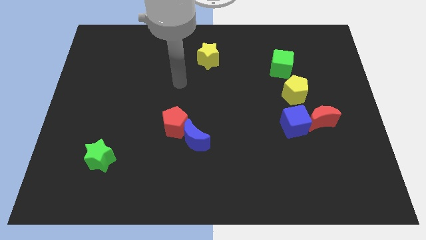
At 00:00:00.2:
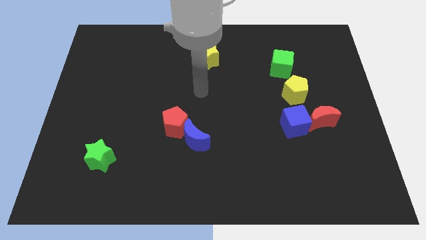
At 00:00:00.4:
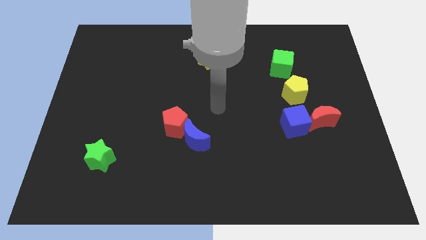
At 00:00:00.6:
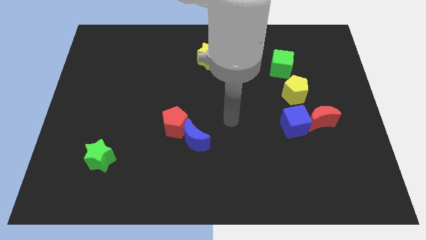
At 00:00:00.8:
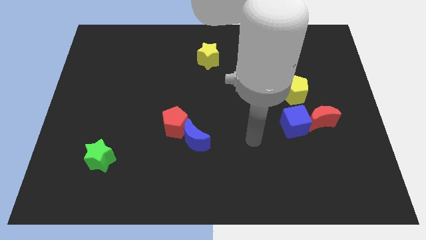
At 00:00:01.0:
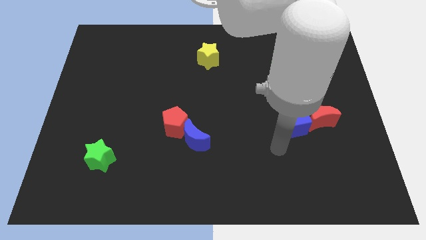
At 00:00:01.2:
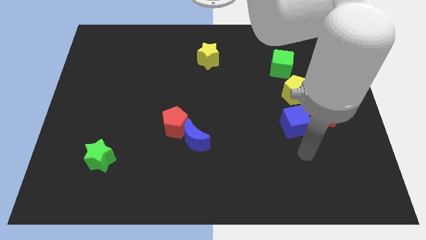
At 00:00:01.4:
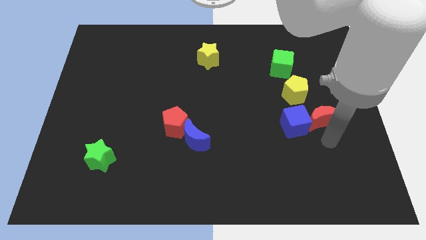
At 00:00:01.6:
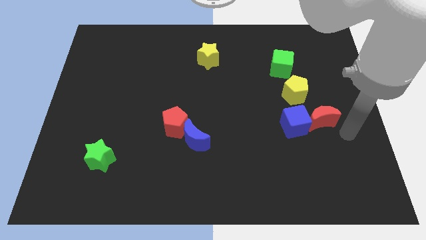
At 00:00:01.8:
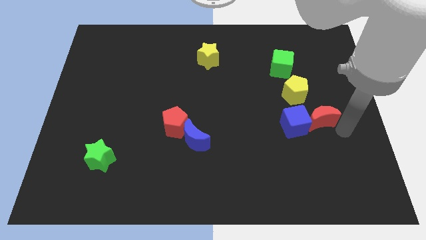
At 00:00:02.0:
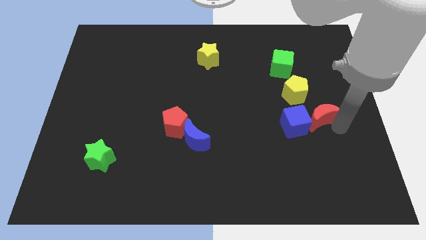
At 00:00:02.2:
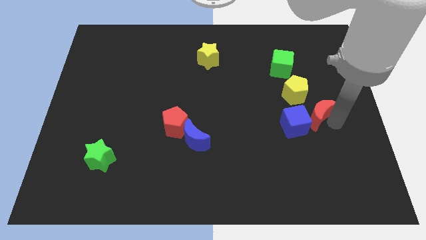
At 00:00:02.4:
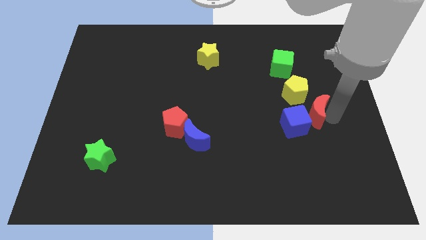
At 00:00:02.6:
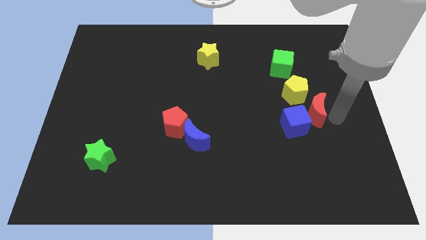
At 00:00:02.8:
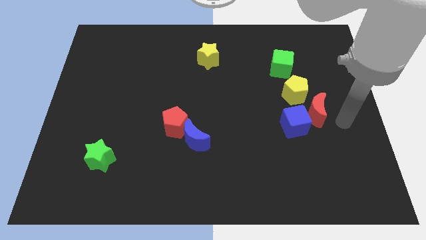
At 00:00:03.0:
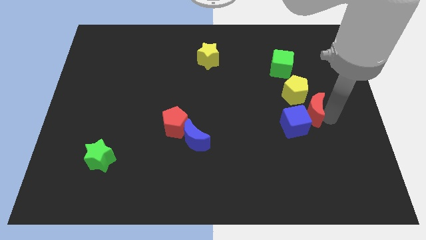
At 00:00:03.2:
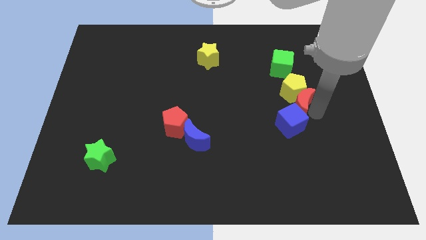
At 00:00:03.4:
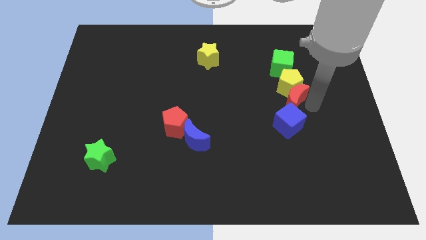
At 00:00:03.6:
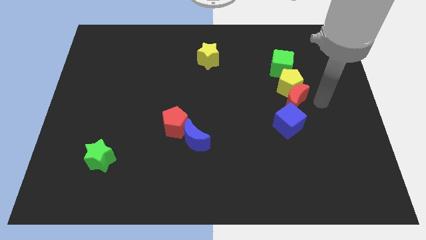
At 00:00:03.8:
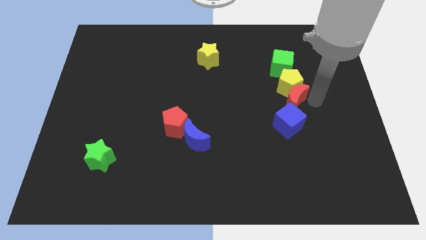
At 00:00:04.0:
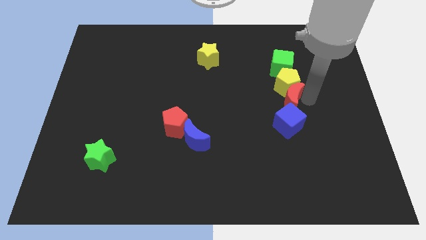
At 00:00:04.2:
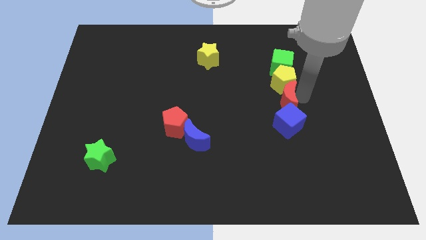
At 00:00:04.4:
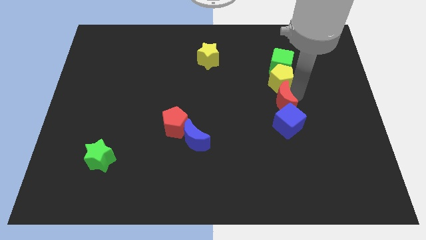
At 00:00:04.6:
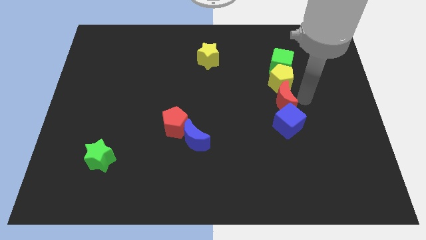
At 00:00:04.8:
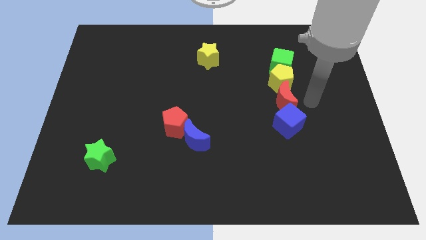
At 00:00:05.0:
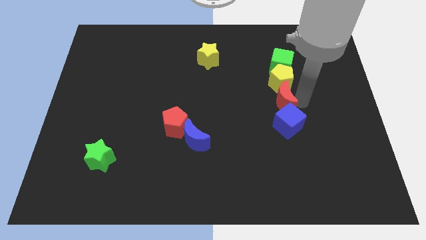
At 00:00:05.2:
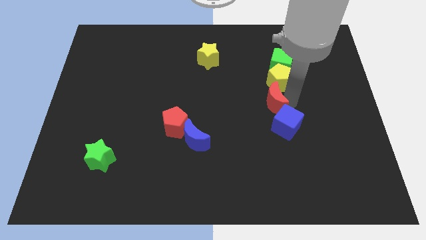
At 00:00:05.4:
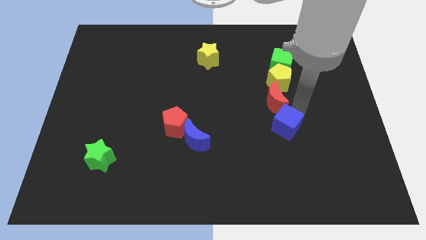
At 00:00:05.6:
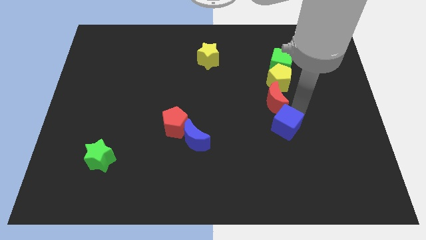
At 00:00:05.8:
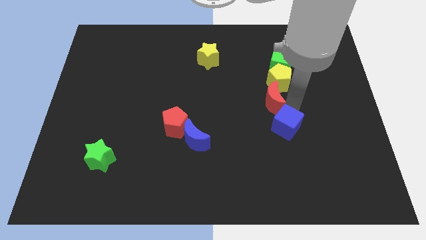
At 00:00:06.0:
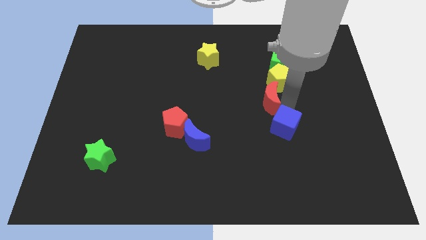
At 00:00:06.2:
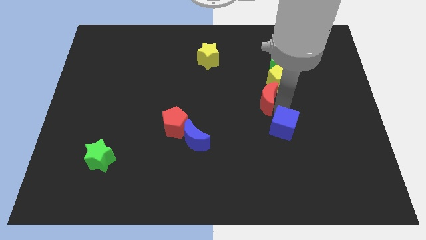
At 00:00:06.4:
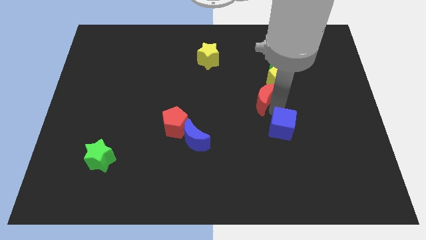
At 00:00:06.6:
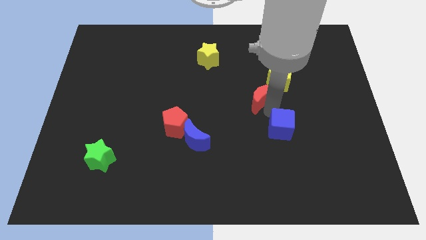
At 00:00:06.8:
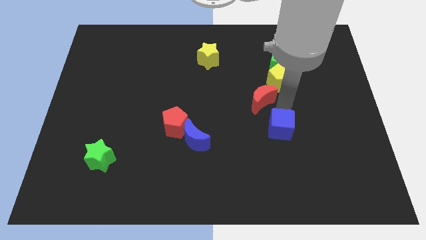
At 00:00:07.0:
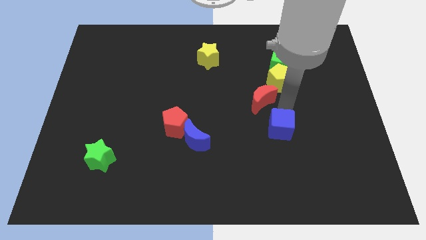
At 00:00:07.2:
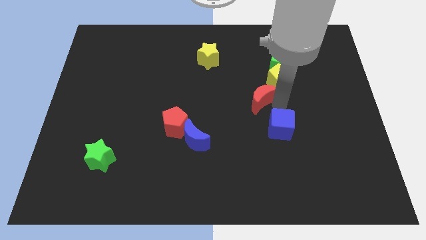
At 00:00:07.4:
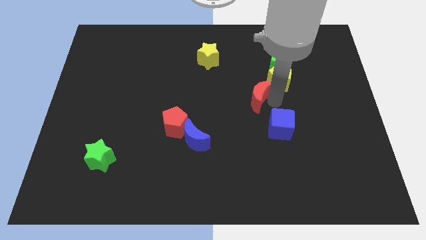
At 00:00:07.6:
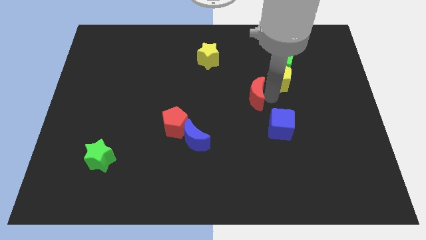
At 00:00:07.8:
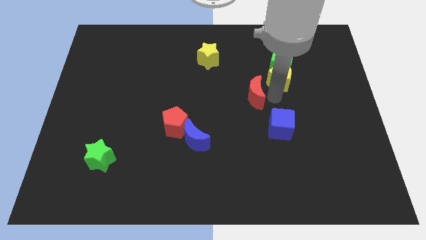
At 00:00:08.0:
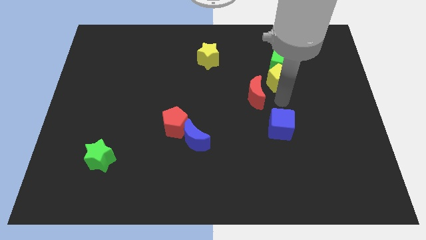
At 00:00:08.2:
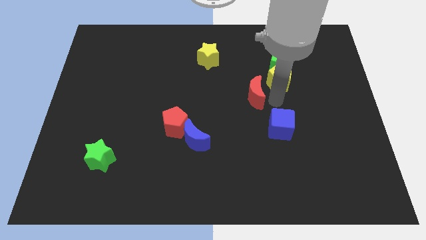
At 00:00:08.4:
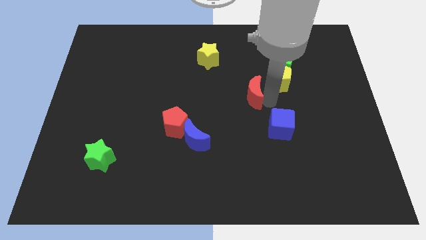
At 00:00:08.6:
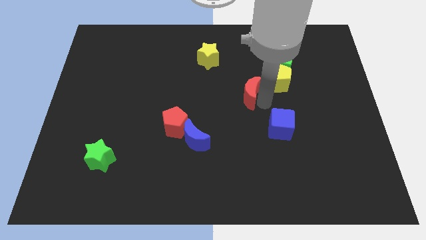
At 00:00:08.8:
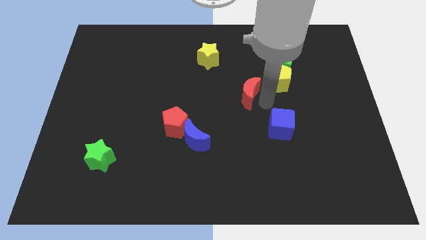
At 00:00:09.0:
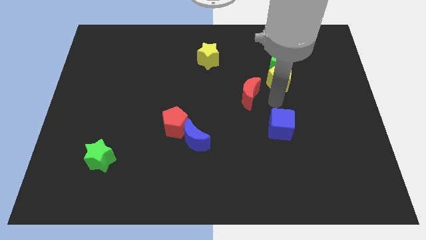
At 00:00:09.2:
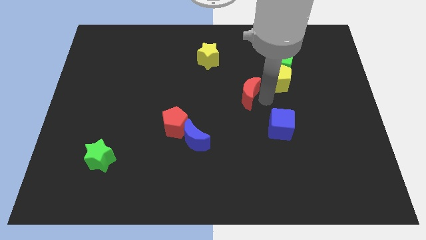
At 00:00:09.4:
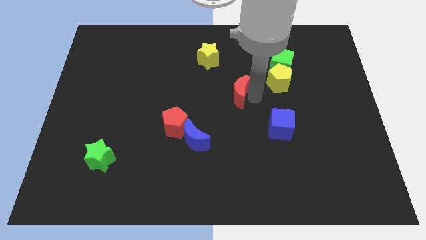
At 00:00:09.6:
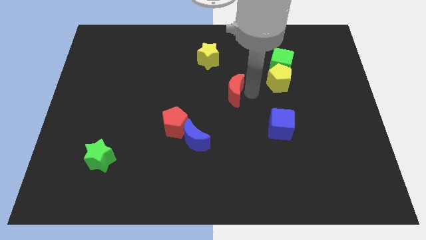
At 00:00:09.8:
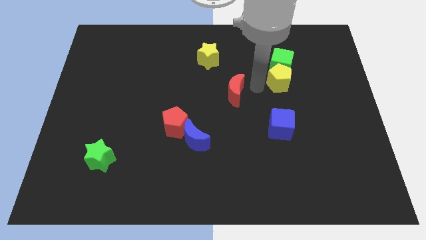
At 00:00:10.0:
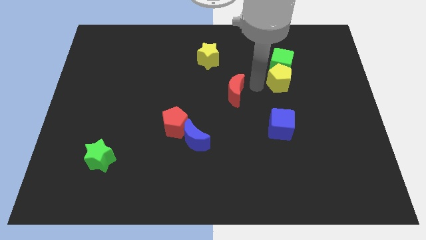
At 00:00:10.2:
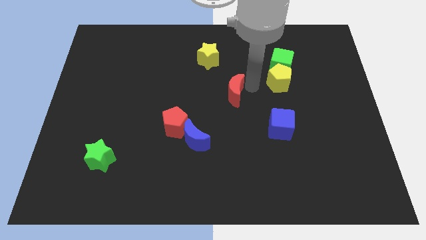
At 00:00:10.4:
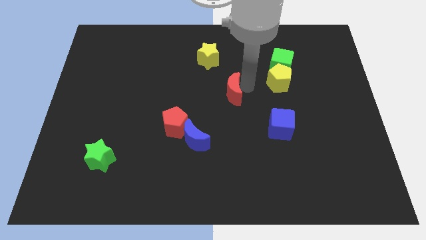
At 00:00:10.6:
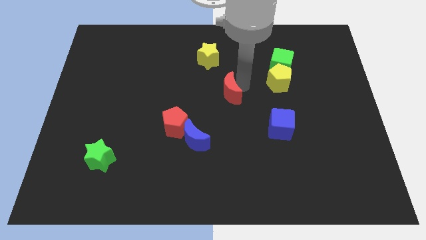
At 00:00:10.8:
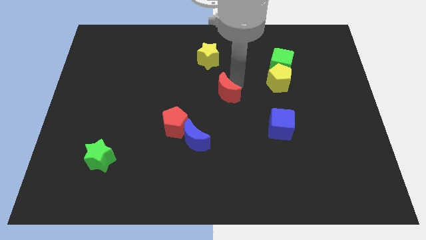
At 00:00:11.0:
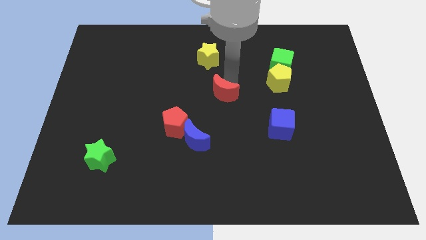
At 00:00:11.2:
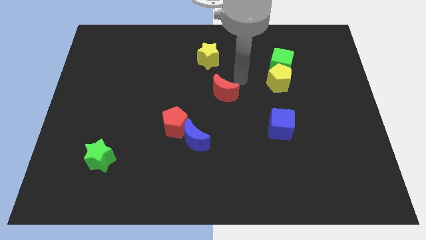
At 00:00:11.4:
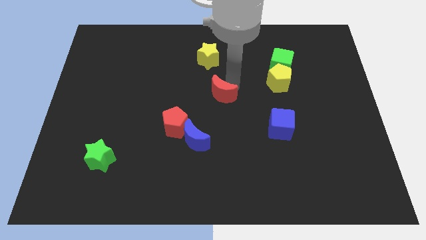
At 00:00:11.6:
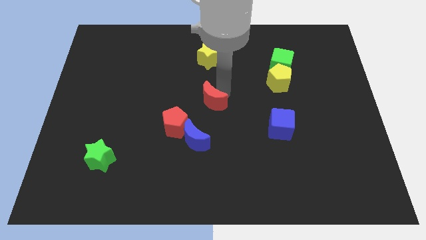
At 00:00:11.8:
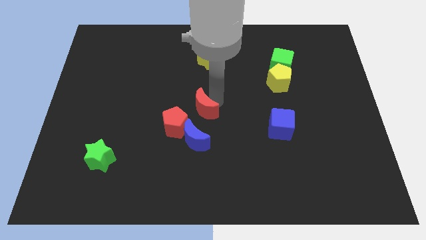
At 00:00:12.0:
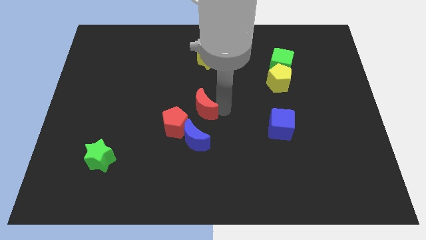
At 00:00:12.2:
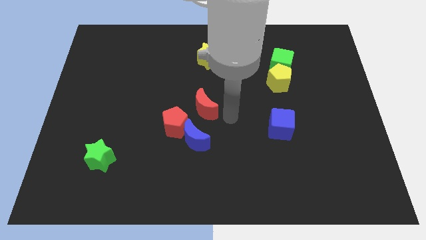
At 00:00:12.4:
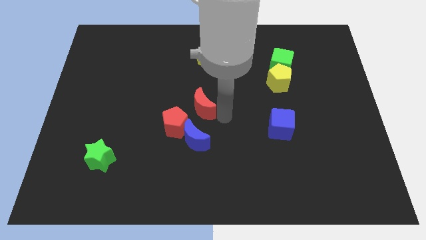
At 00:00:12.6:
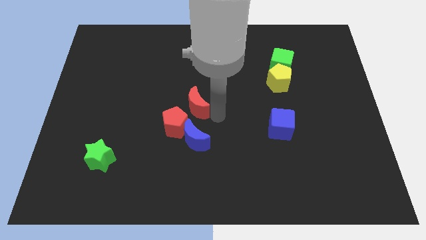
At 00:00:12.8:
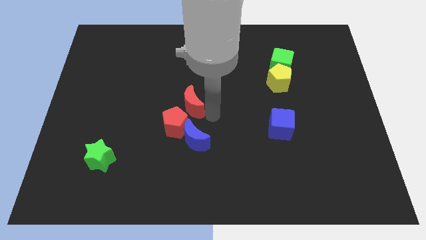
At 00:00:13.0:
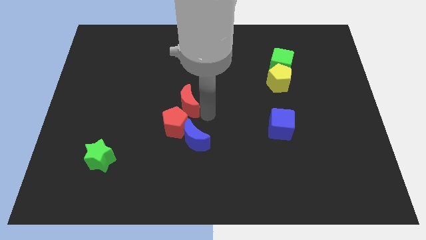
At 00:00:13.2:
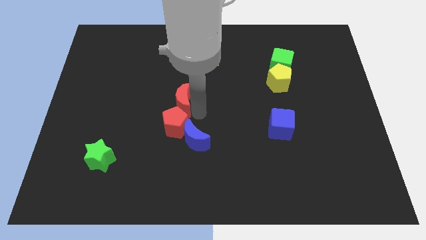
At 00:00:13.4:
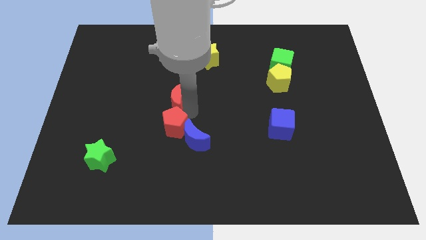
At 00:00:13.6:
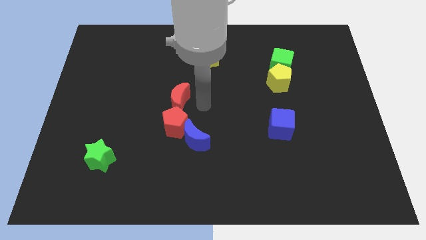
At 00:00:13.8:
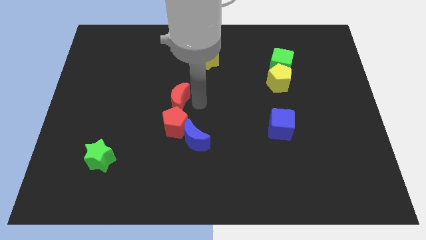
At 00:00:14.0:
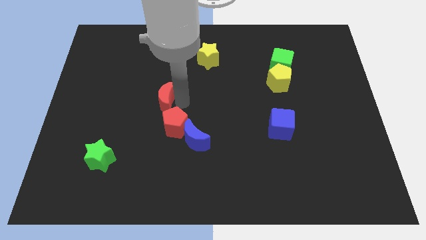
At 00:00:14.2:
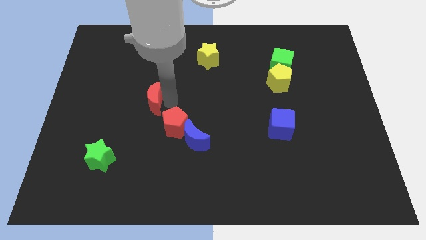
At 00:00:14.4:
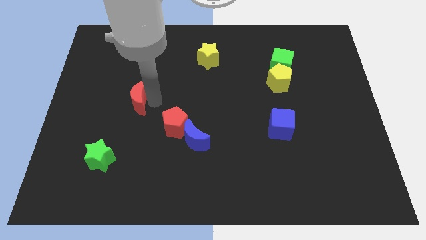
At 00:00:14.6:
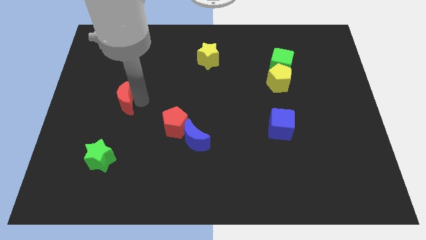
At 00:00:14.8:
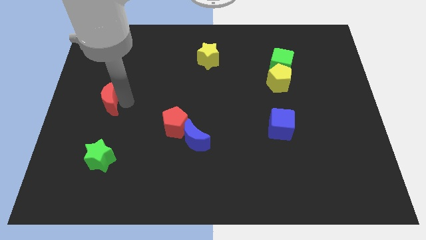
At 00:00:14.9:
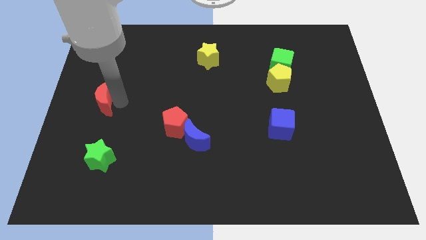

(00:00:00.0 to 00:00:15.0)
push the red moon to the left side
